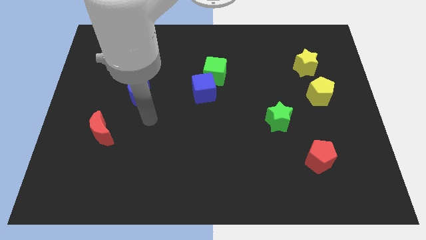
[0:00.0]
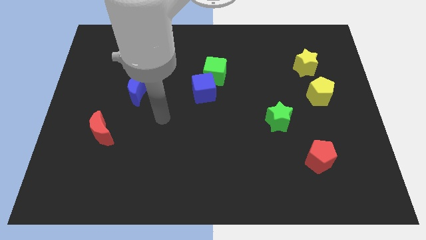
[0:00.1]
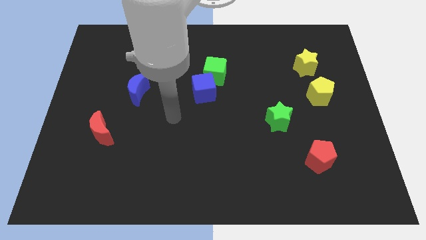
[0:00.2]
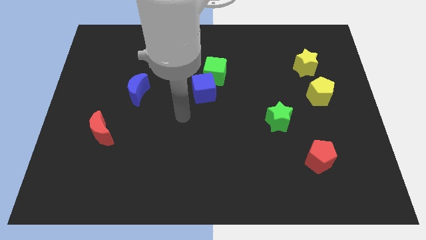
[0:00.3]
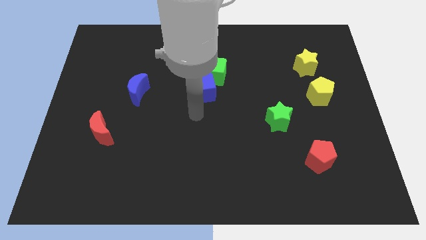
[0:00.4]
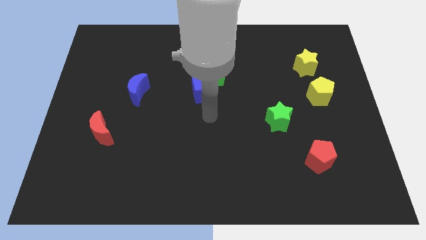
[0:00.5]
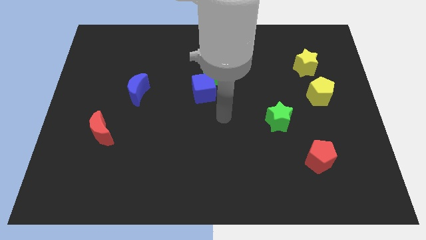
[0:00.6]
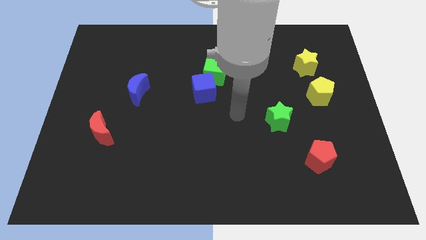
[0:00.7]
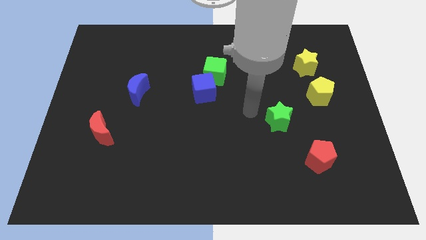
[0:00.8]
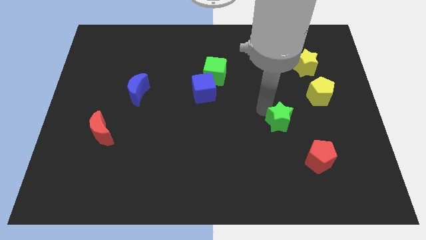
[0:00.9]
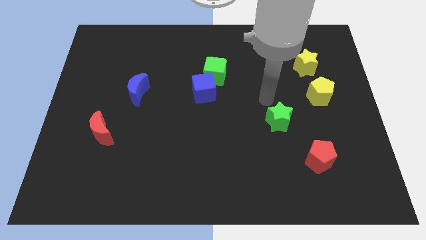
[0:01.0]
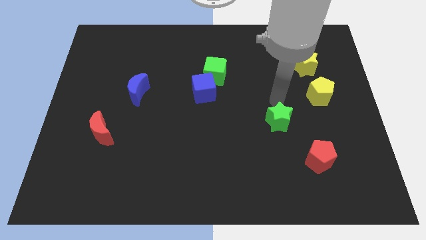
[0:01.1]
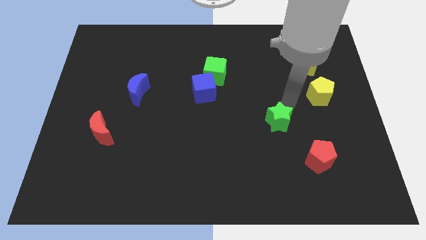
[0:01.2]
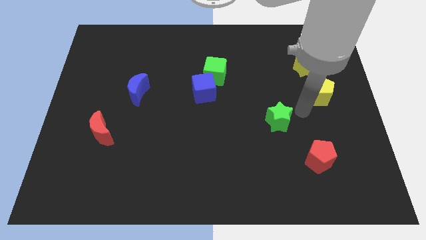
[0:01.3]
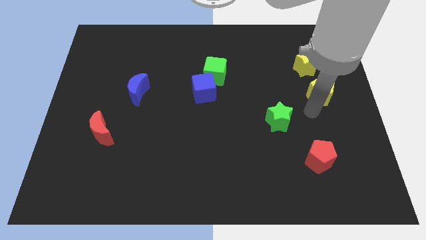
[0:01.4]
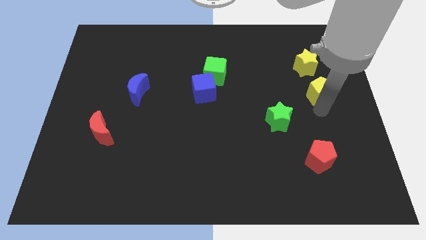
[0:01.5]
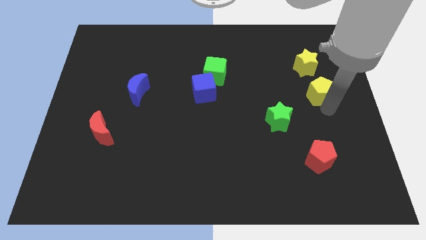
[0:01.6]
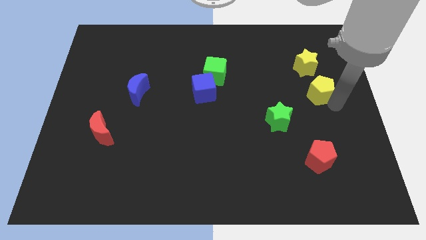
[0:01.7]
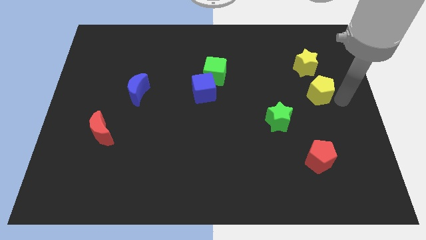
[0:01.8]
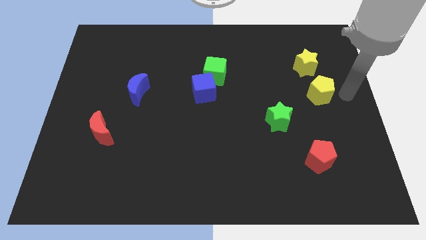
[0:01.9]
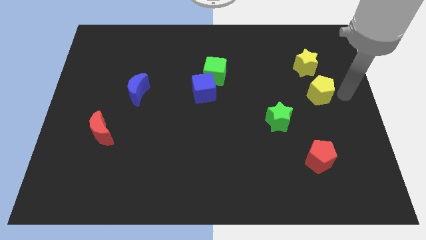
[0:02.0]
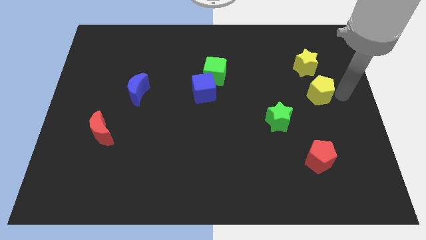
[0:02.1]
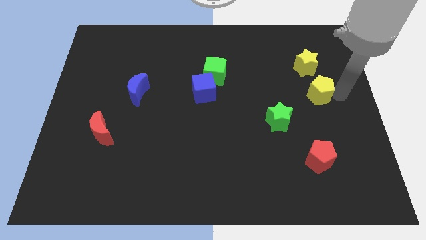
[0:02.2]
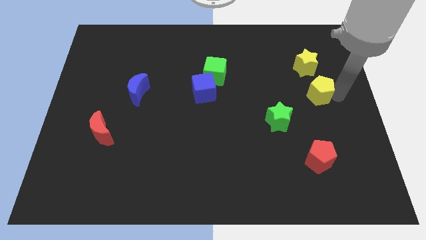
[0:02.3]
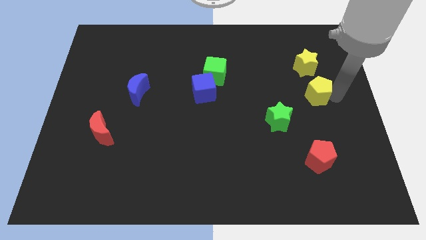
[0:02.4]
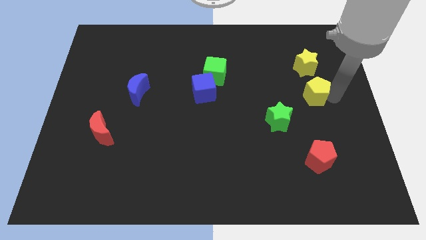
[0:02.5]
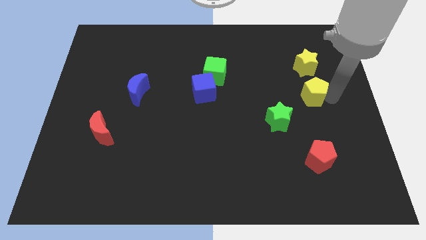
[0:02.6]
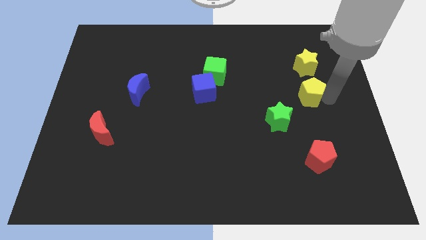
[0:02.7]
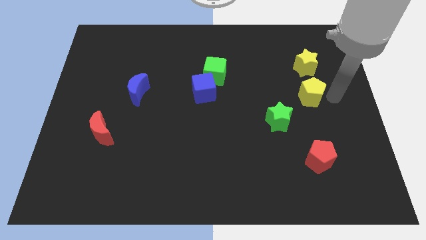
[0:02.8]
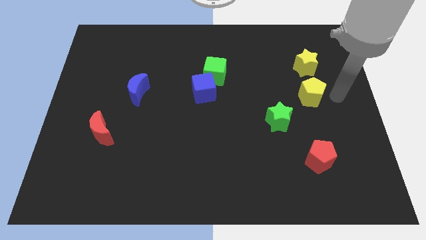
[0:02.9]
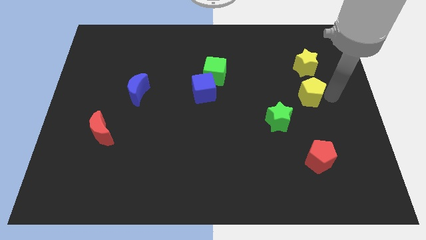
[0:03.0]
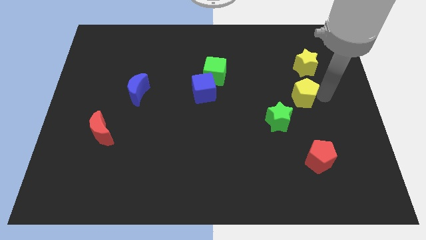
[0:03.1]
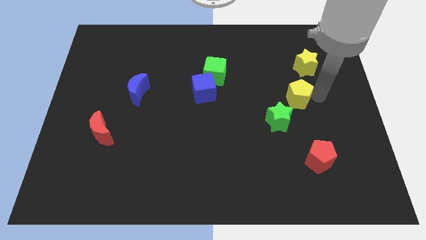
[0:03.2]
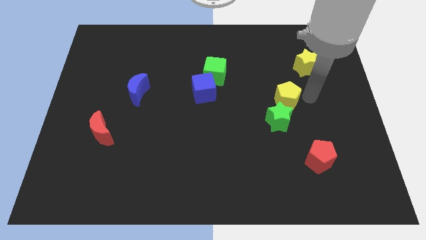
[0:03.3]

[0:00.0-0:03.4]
slide the yellow pentagon left a little

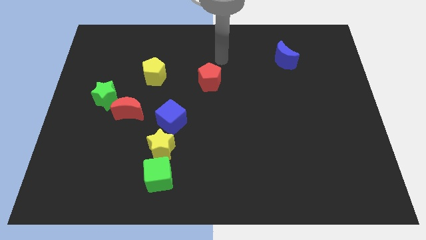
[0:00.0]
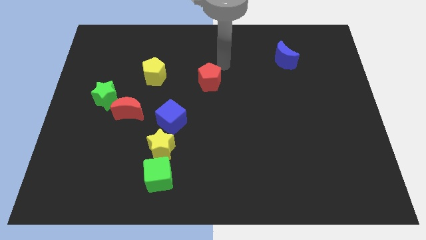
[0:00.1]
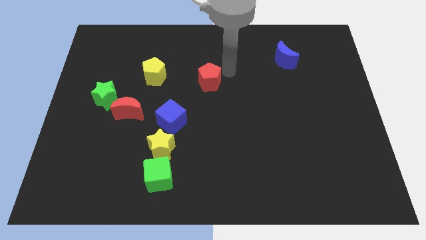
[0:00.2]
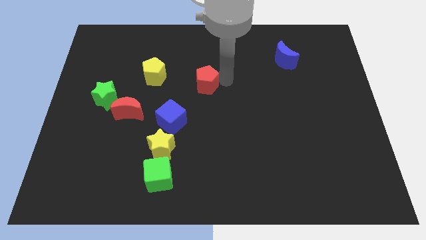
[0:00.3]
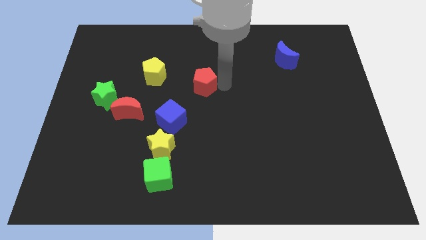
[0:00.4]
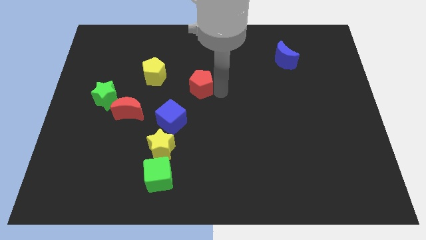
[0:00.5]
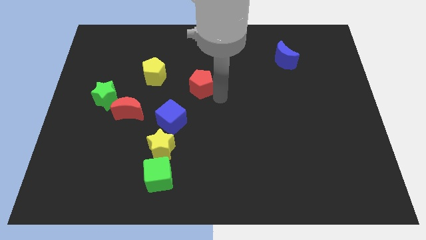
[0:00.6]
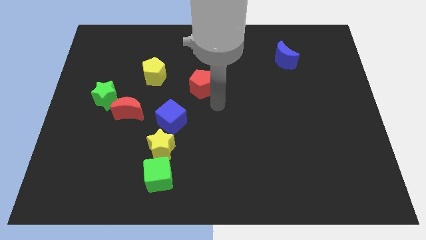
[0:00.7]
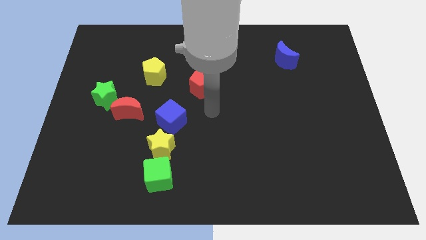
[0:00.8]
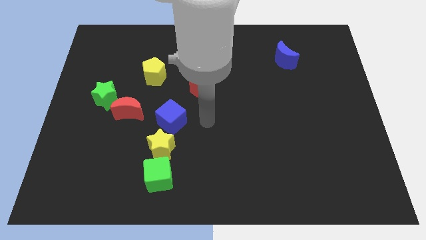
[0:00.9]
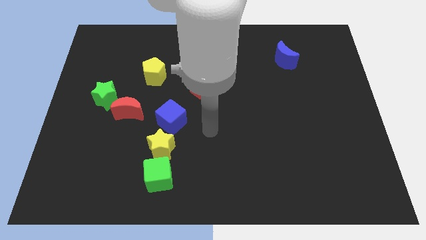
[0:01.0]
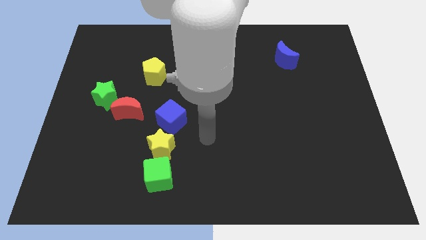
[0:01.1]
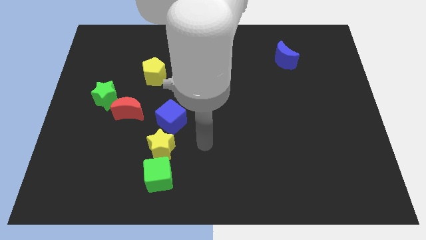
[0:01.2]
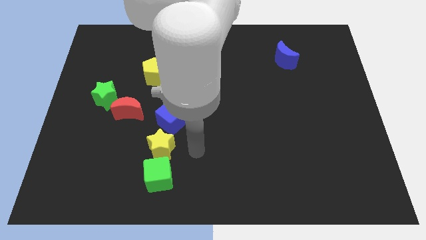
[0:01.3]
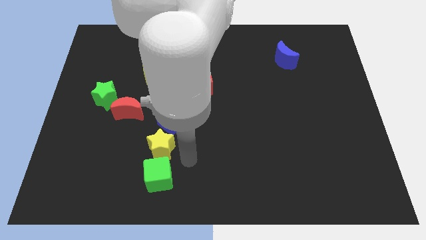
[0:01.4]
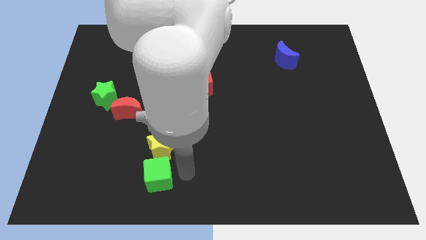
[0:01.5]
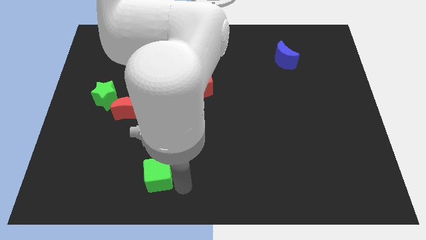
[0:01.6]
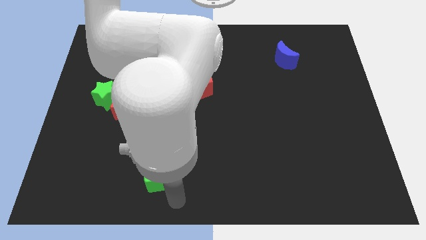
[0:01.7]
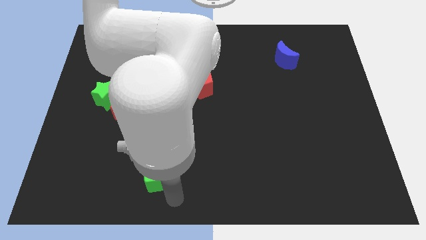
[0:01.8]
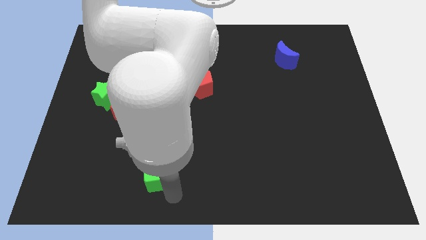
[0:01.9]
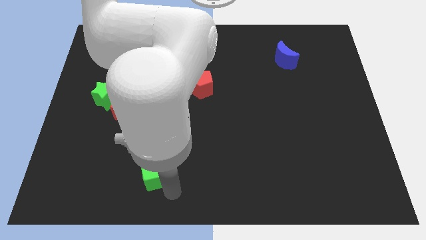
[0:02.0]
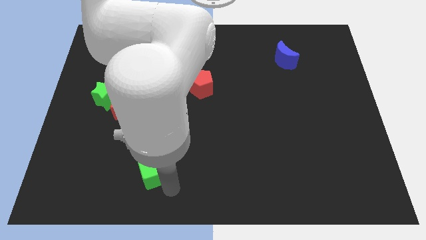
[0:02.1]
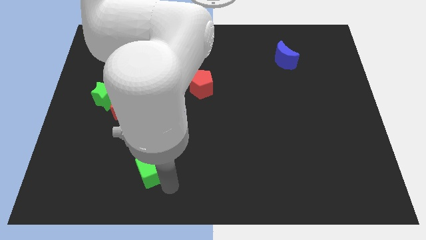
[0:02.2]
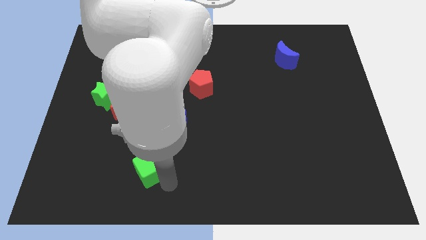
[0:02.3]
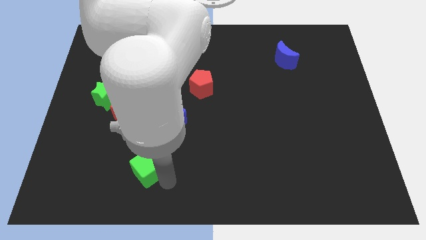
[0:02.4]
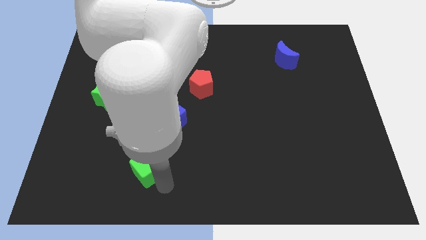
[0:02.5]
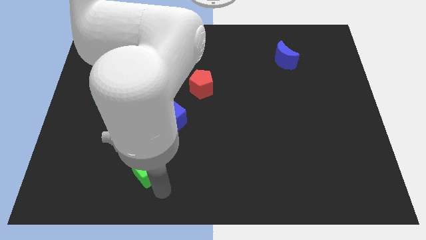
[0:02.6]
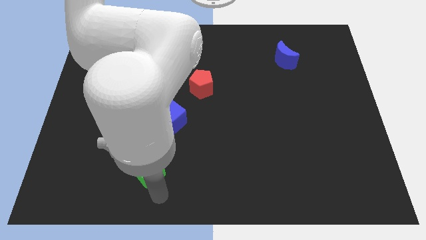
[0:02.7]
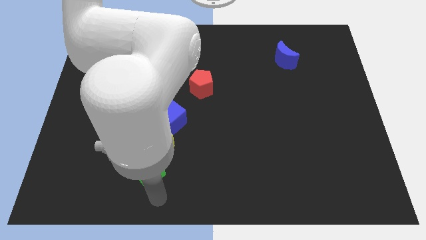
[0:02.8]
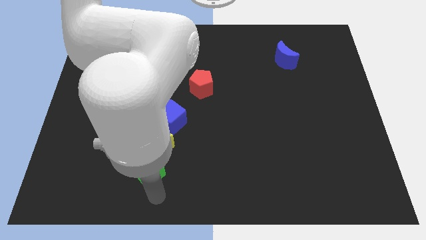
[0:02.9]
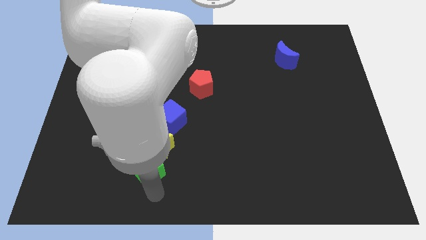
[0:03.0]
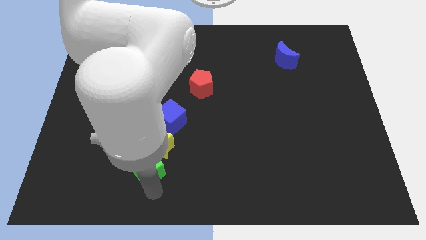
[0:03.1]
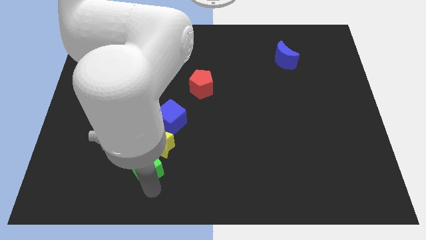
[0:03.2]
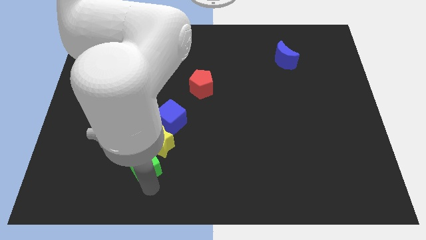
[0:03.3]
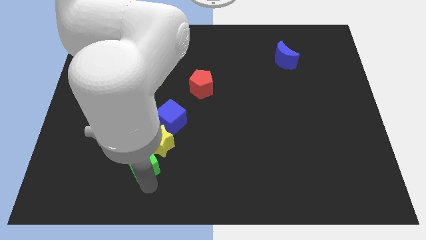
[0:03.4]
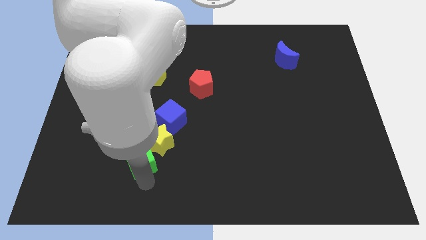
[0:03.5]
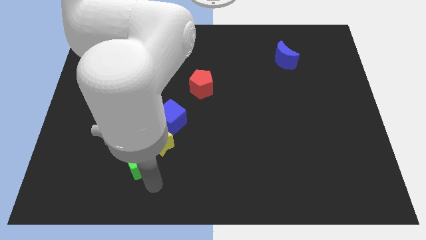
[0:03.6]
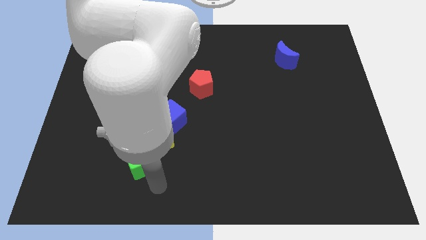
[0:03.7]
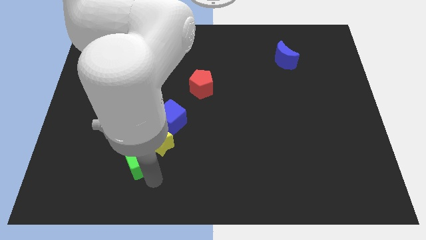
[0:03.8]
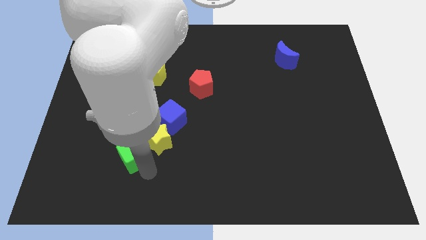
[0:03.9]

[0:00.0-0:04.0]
slide the green cube up and then to the left slightly

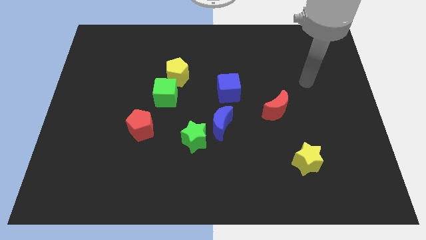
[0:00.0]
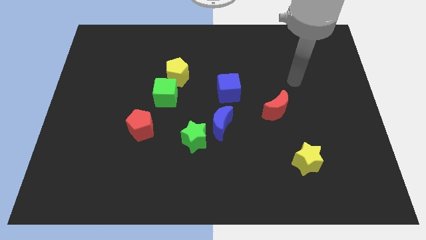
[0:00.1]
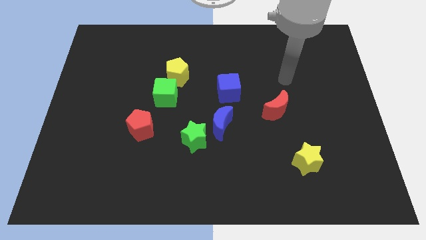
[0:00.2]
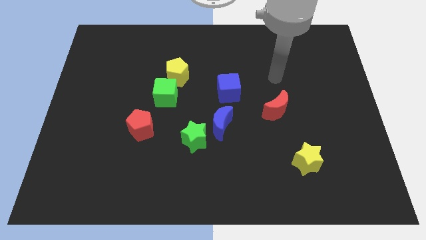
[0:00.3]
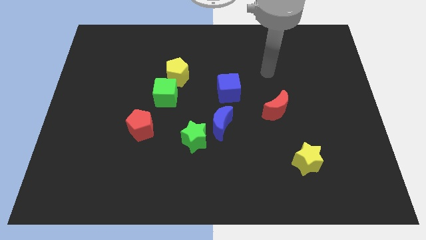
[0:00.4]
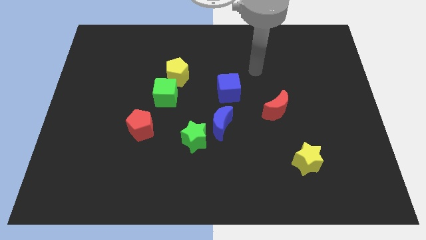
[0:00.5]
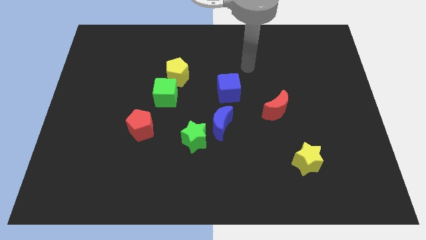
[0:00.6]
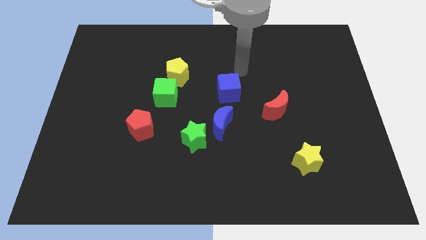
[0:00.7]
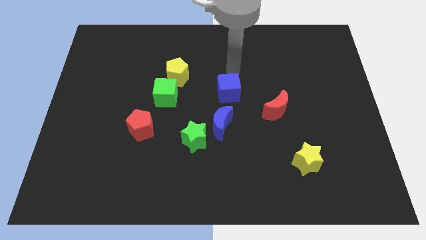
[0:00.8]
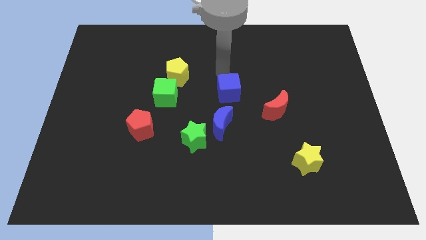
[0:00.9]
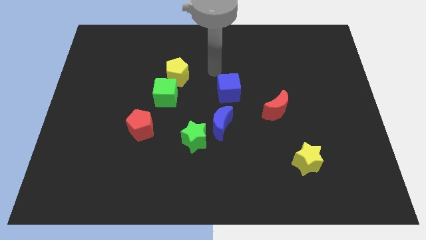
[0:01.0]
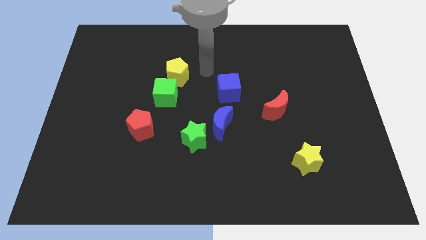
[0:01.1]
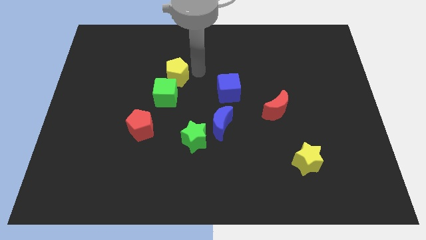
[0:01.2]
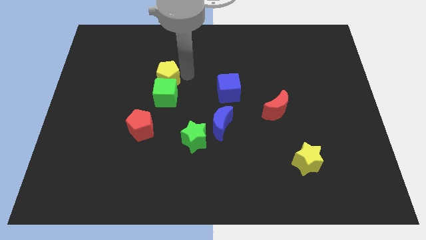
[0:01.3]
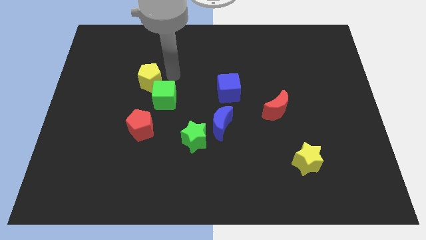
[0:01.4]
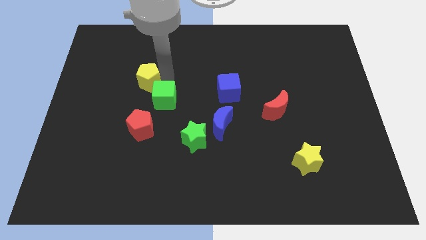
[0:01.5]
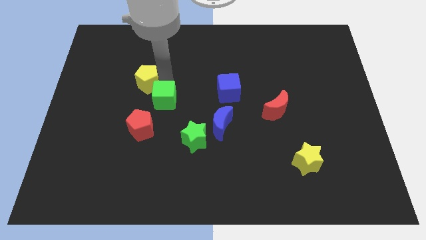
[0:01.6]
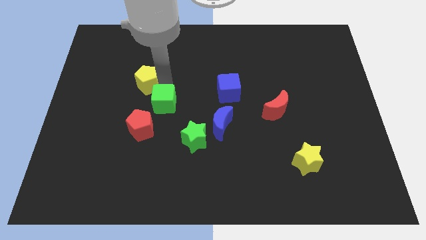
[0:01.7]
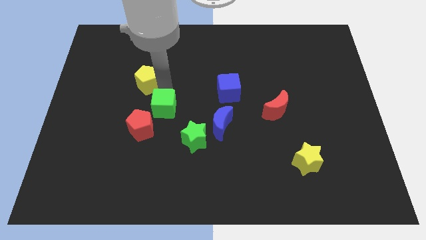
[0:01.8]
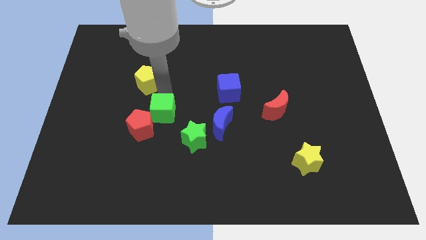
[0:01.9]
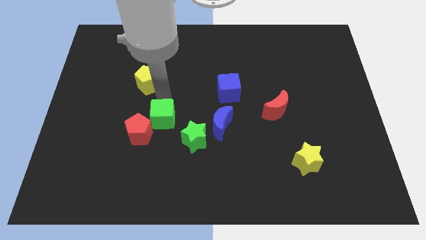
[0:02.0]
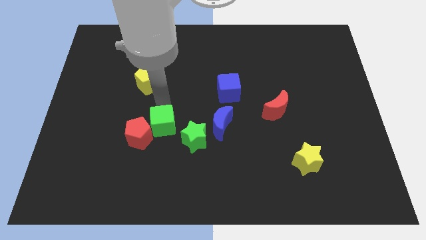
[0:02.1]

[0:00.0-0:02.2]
slightly move the green cube down
